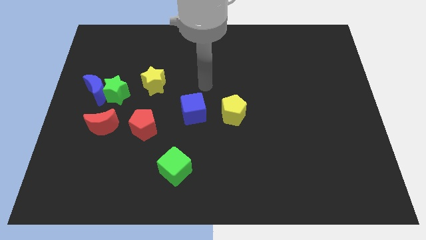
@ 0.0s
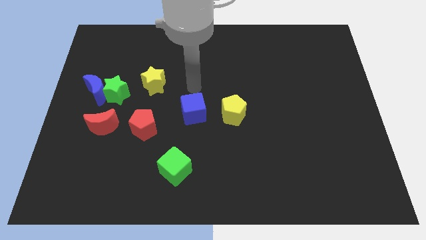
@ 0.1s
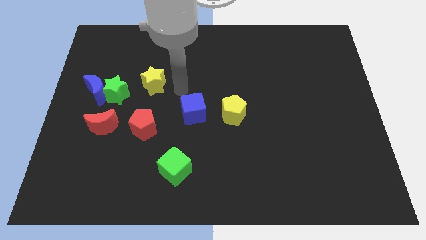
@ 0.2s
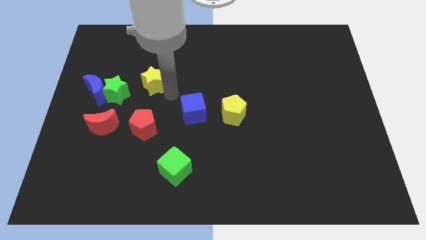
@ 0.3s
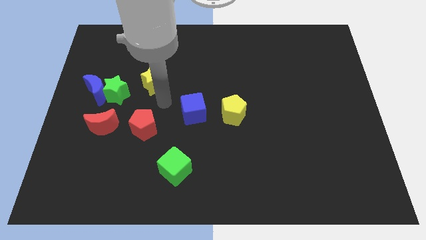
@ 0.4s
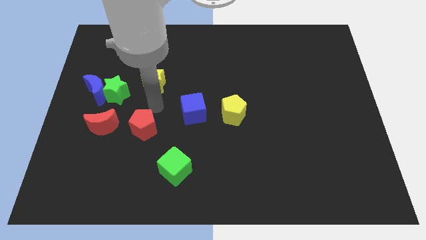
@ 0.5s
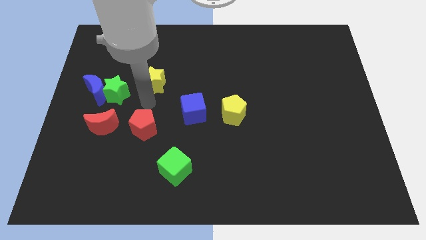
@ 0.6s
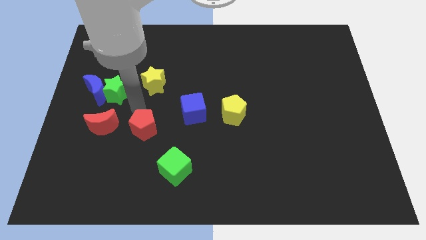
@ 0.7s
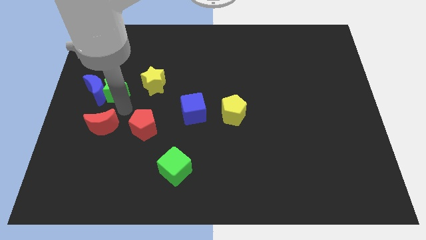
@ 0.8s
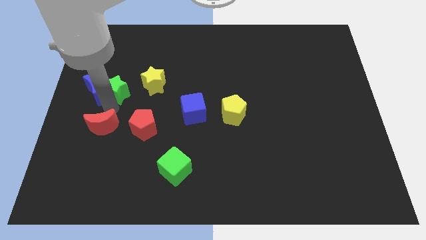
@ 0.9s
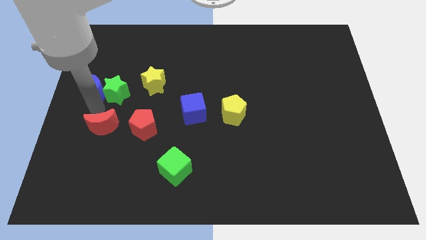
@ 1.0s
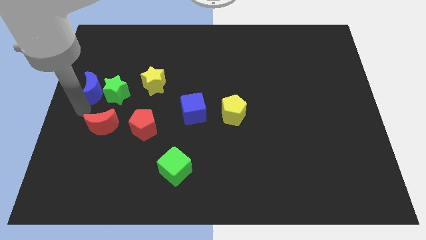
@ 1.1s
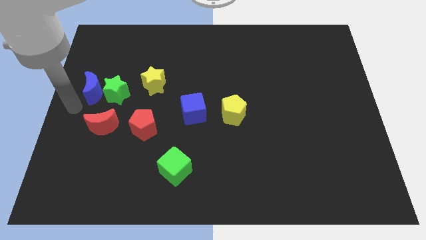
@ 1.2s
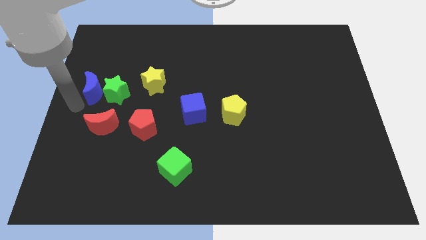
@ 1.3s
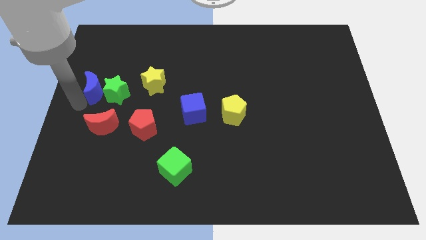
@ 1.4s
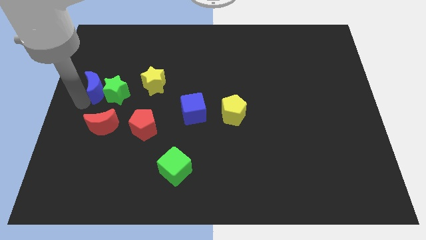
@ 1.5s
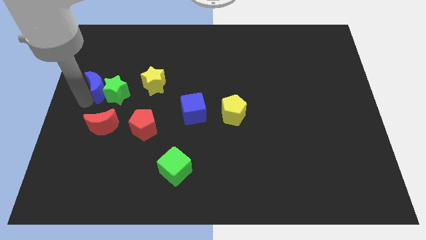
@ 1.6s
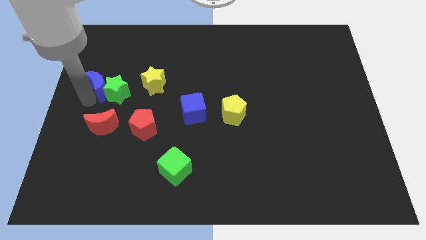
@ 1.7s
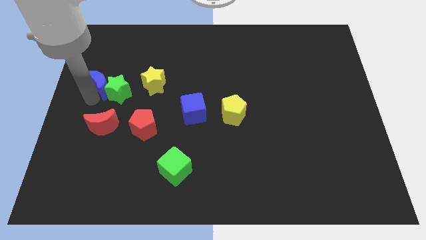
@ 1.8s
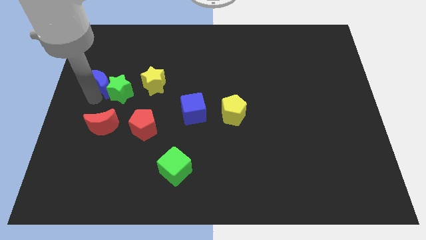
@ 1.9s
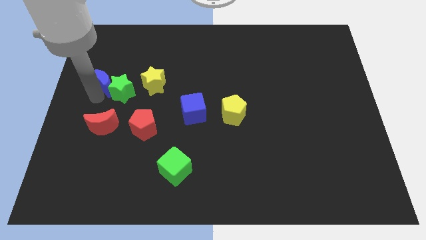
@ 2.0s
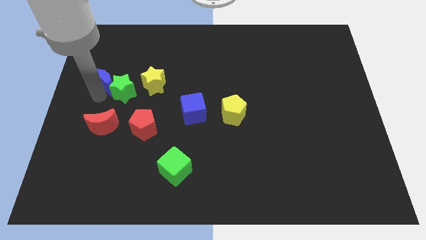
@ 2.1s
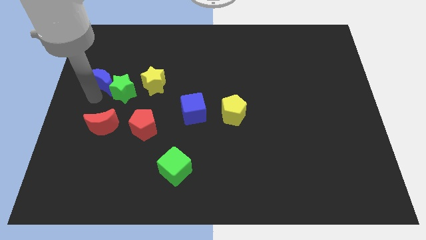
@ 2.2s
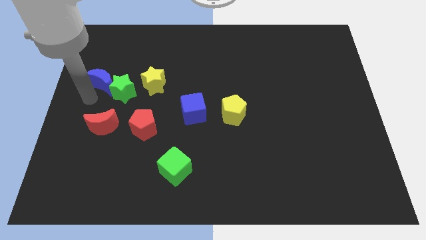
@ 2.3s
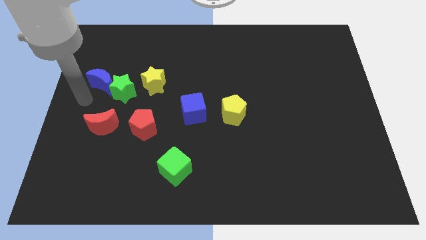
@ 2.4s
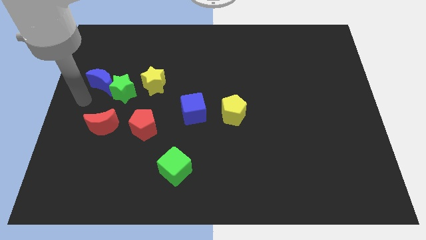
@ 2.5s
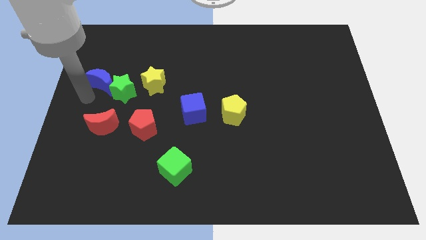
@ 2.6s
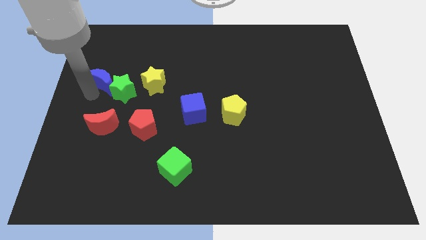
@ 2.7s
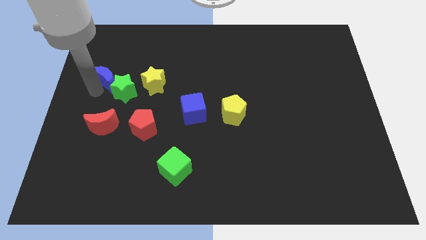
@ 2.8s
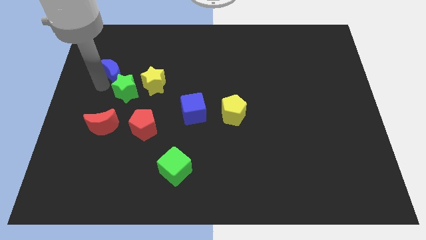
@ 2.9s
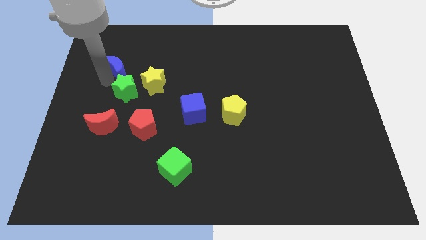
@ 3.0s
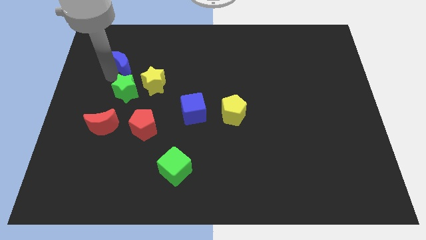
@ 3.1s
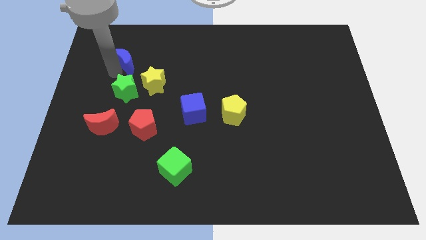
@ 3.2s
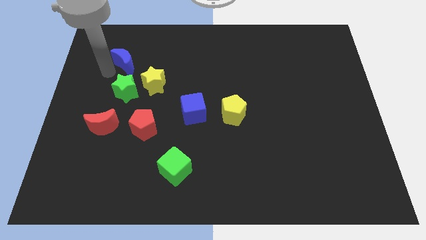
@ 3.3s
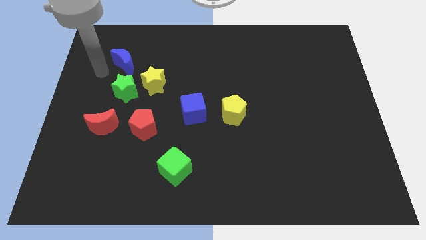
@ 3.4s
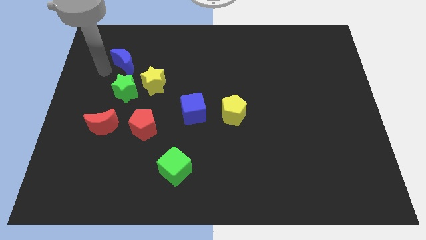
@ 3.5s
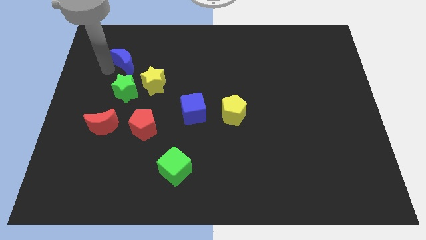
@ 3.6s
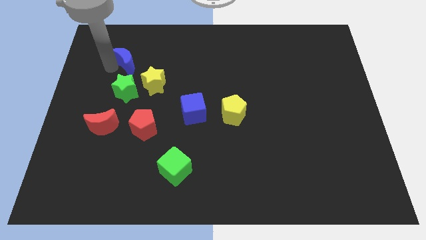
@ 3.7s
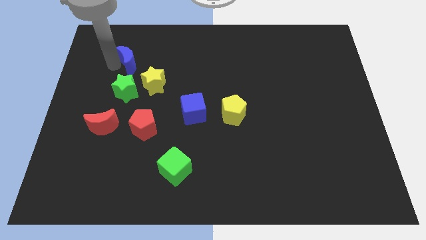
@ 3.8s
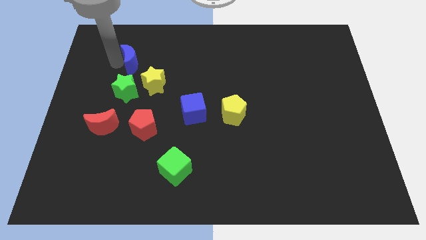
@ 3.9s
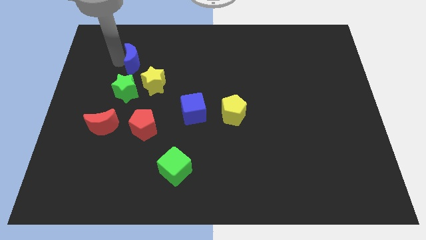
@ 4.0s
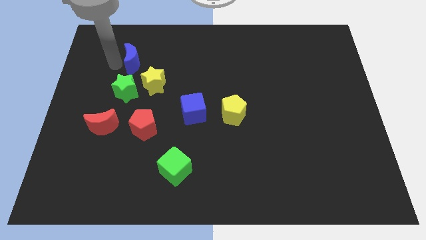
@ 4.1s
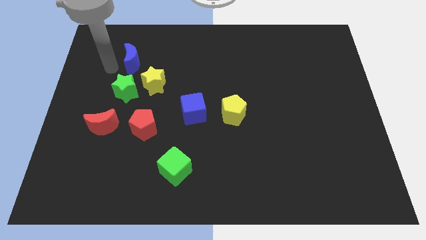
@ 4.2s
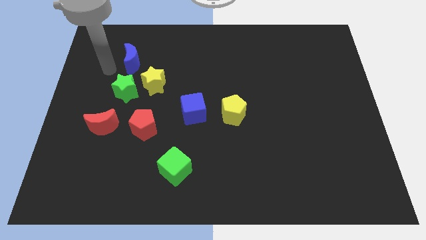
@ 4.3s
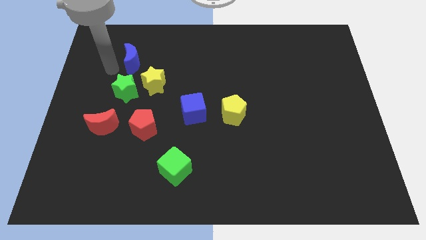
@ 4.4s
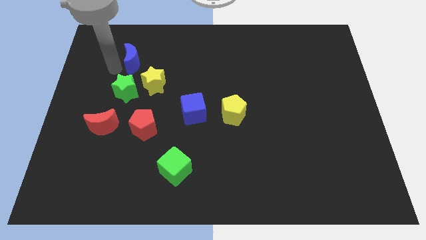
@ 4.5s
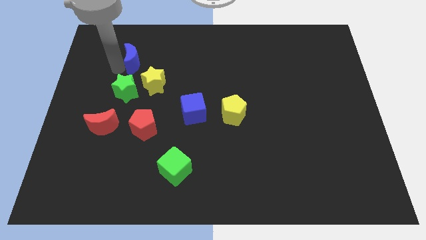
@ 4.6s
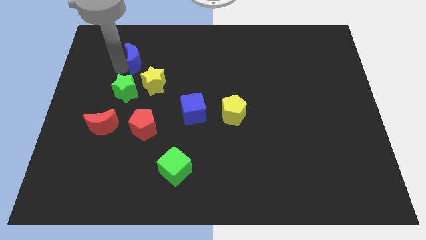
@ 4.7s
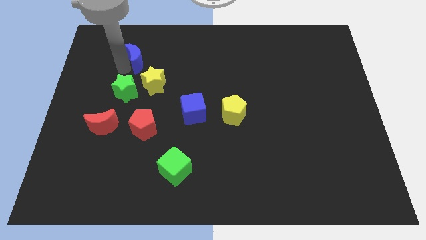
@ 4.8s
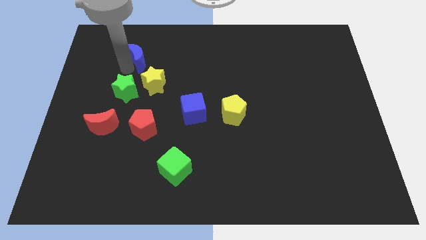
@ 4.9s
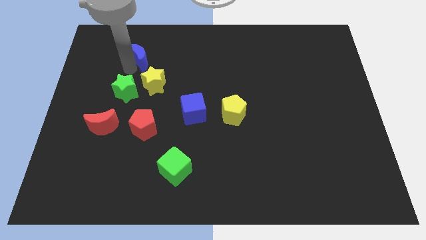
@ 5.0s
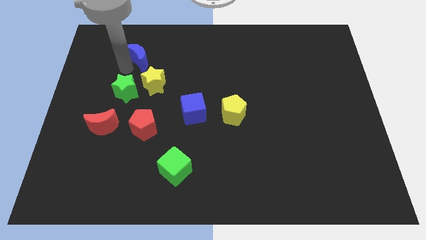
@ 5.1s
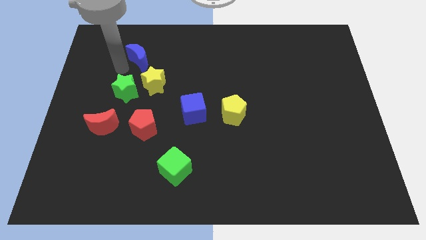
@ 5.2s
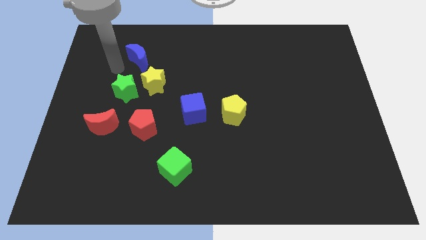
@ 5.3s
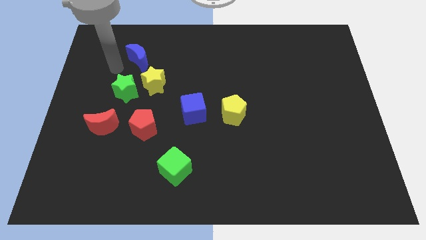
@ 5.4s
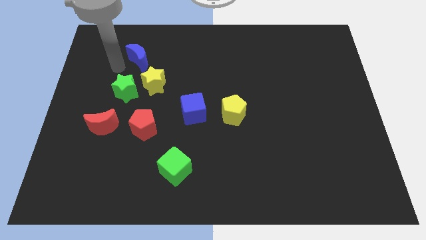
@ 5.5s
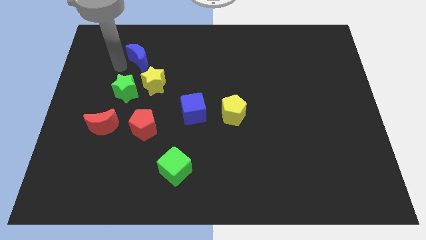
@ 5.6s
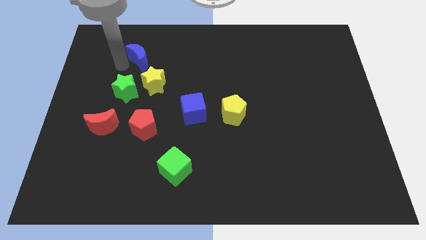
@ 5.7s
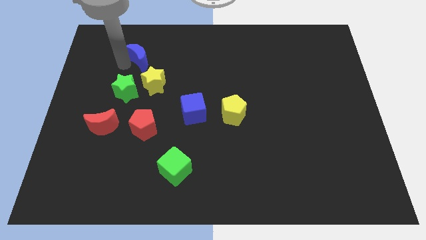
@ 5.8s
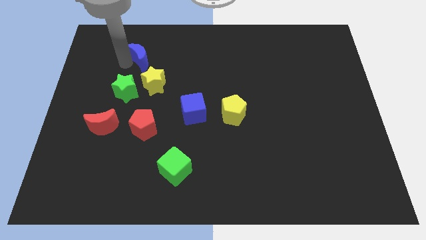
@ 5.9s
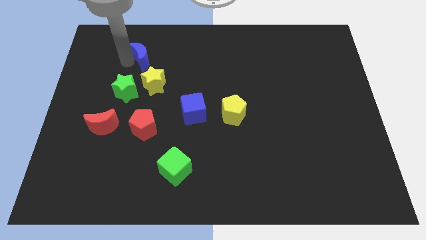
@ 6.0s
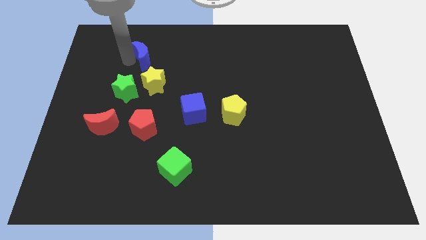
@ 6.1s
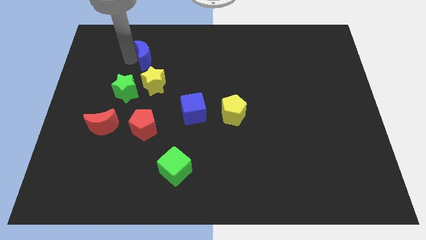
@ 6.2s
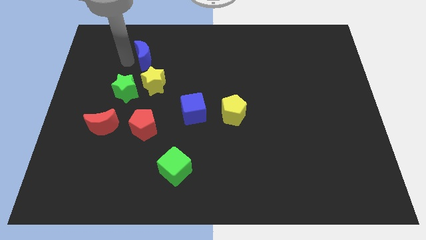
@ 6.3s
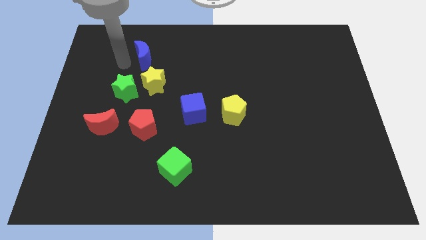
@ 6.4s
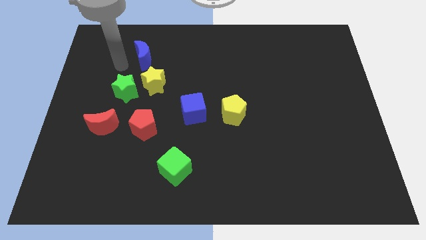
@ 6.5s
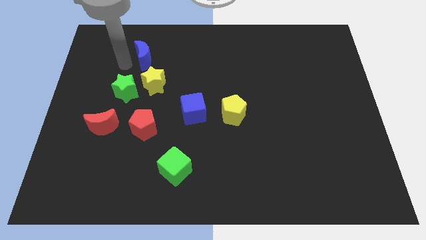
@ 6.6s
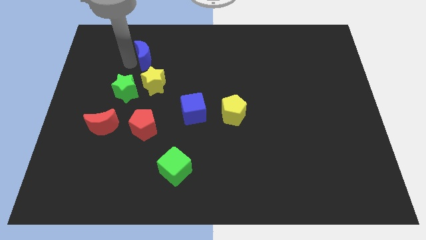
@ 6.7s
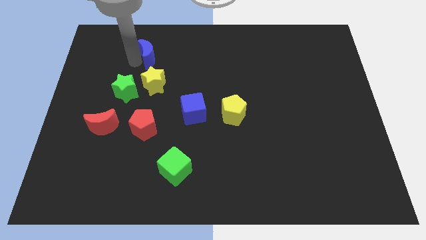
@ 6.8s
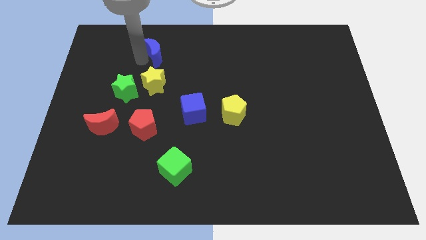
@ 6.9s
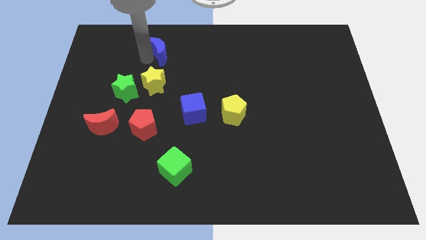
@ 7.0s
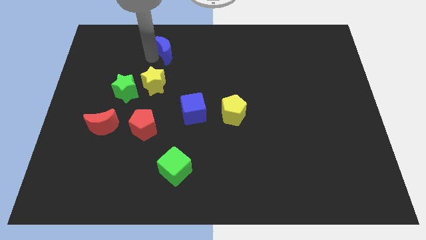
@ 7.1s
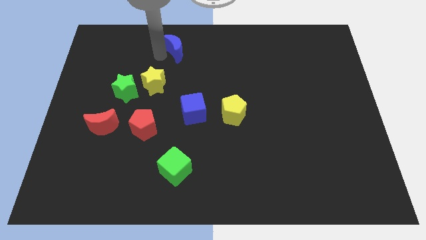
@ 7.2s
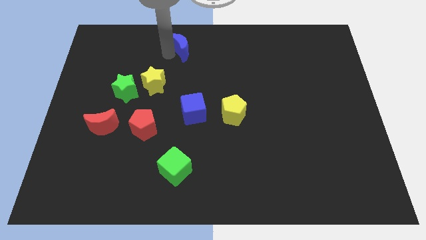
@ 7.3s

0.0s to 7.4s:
put the blue moon to the top
